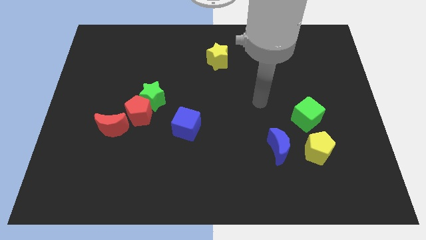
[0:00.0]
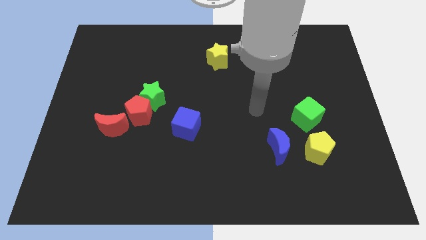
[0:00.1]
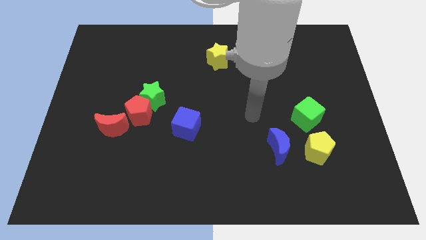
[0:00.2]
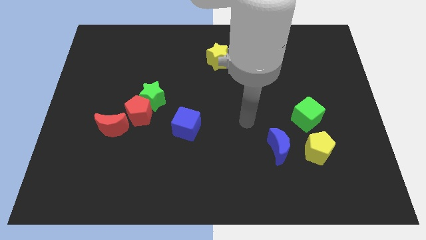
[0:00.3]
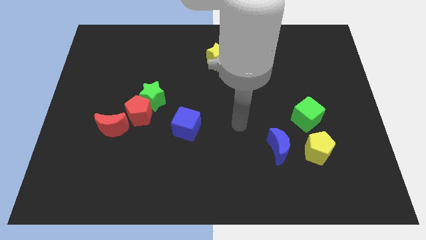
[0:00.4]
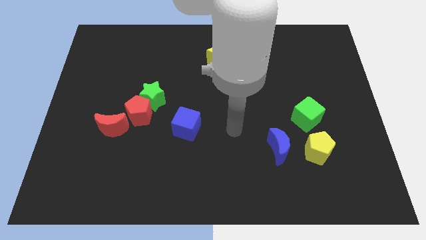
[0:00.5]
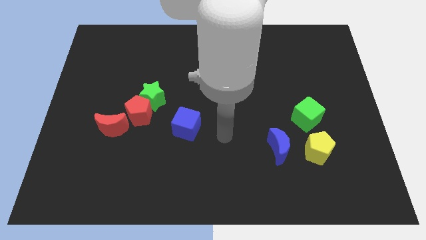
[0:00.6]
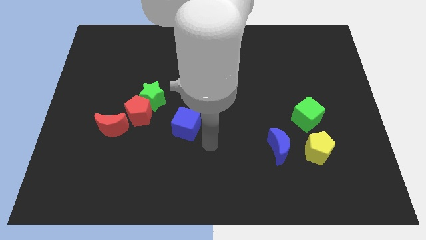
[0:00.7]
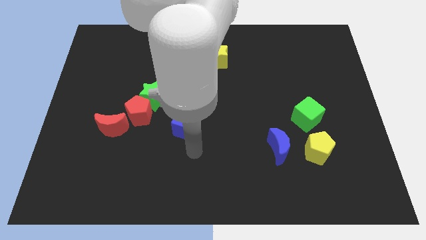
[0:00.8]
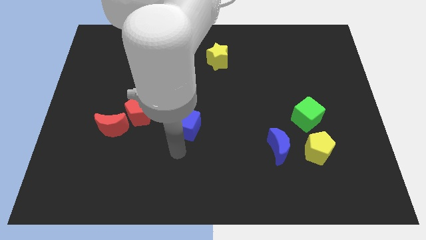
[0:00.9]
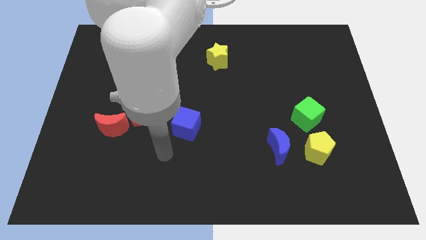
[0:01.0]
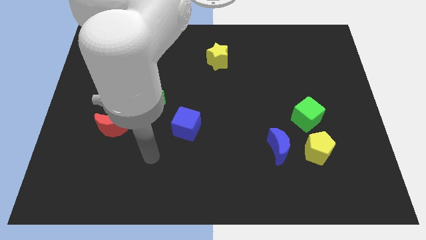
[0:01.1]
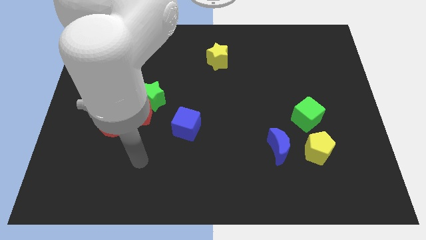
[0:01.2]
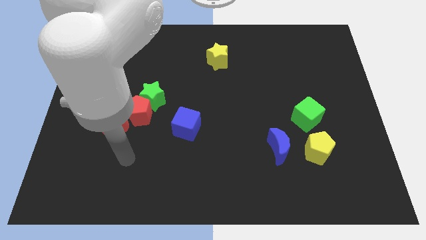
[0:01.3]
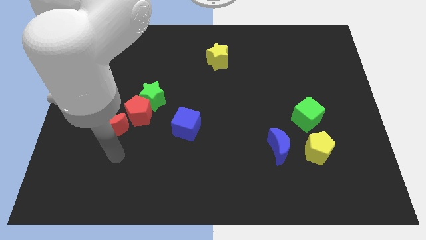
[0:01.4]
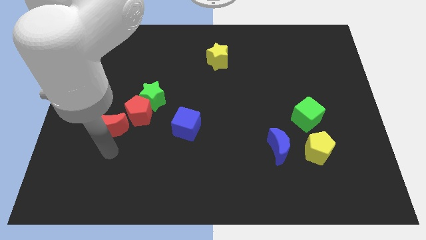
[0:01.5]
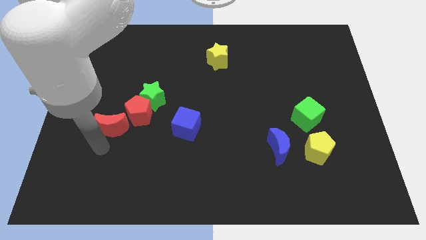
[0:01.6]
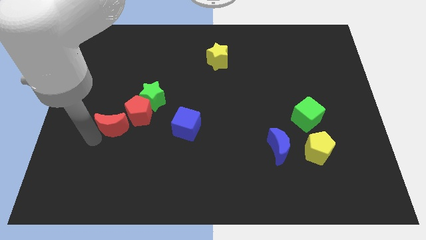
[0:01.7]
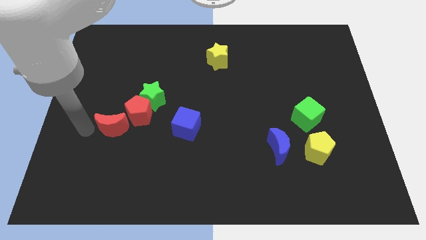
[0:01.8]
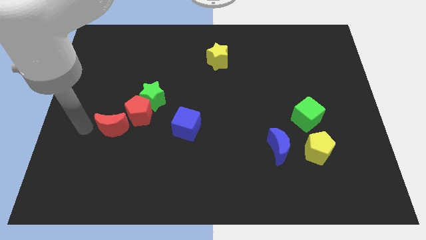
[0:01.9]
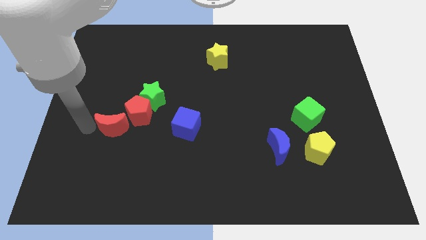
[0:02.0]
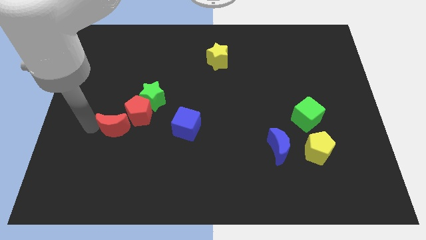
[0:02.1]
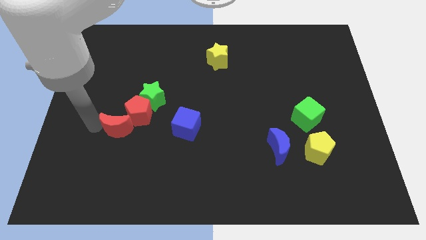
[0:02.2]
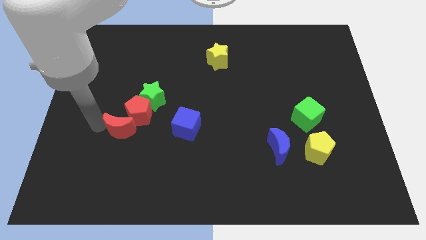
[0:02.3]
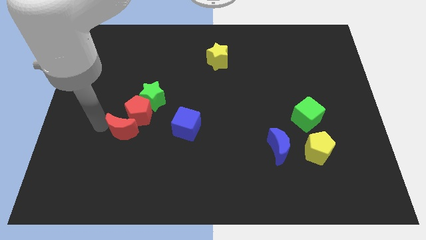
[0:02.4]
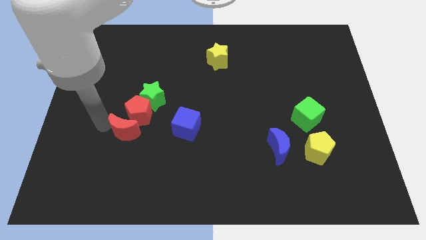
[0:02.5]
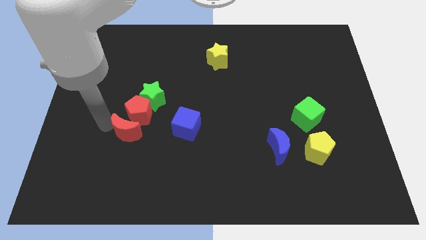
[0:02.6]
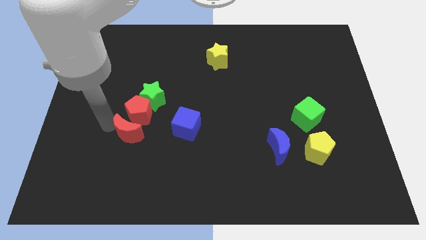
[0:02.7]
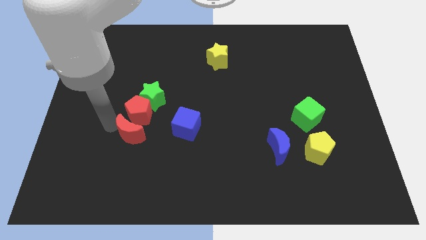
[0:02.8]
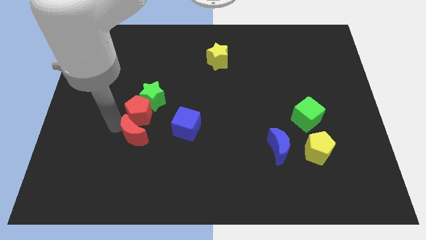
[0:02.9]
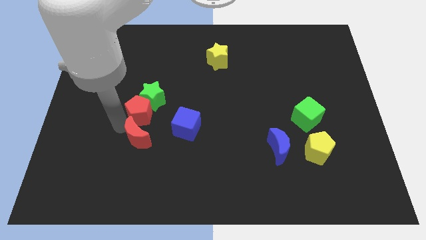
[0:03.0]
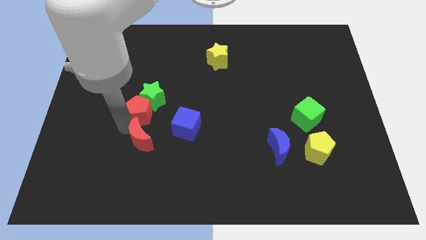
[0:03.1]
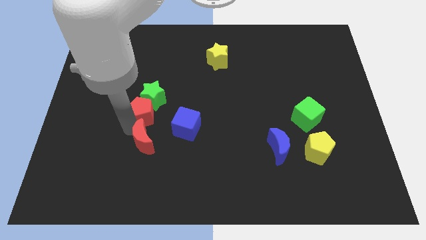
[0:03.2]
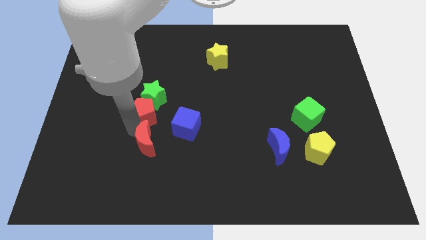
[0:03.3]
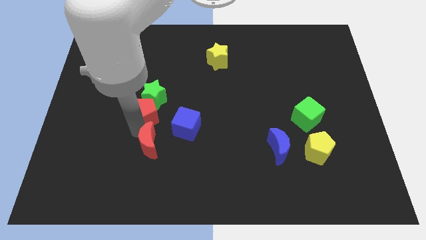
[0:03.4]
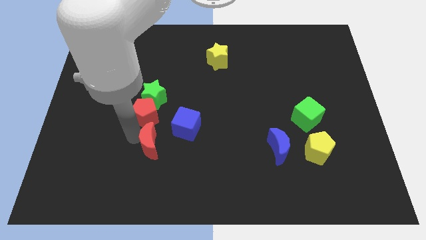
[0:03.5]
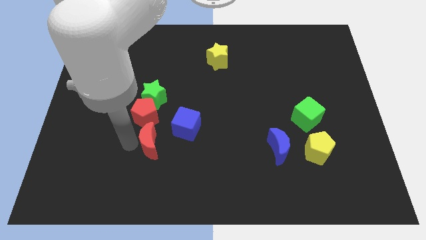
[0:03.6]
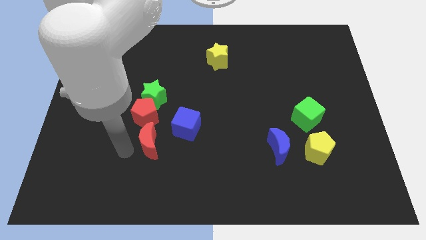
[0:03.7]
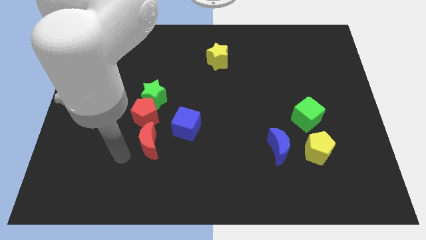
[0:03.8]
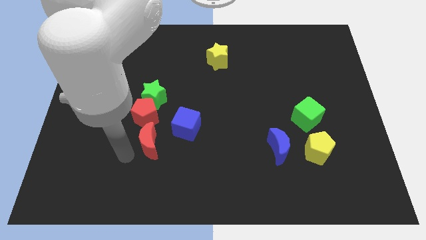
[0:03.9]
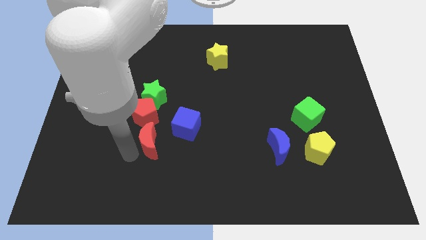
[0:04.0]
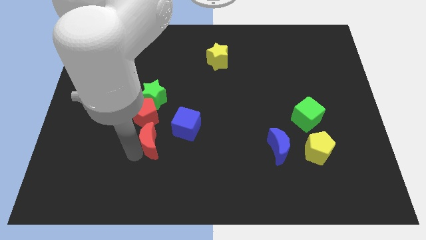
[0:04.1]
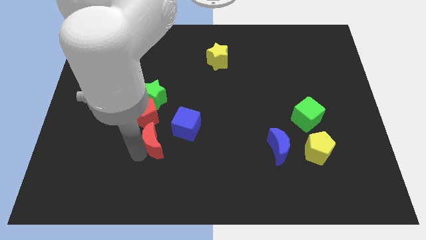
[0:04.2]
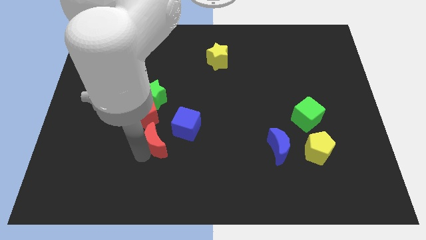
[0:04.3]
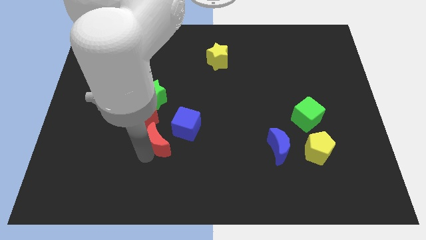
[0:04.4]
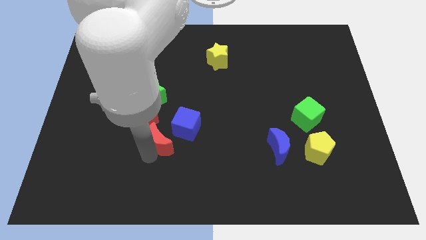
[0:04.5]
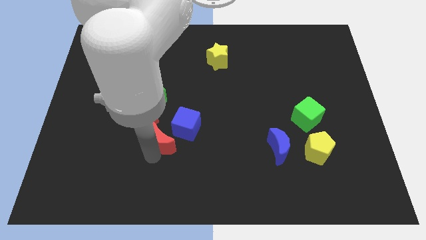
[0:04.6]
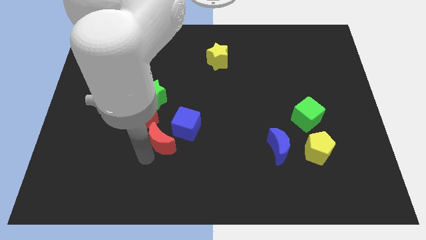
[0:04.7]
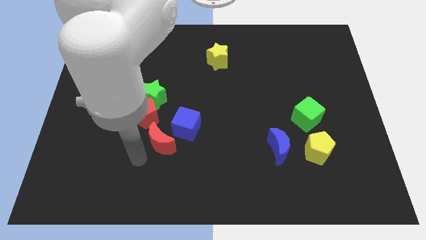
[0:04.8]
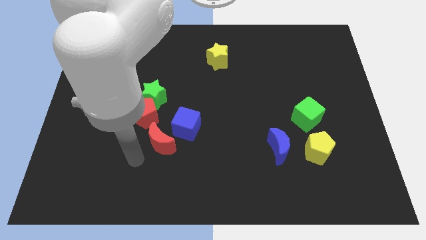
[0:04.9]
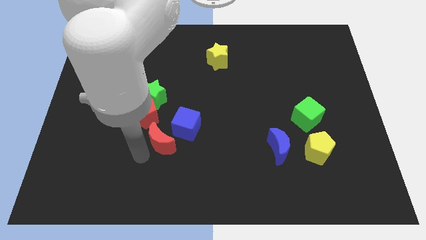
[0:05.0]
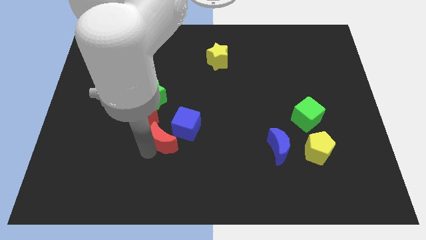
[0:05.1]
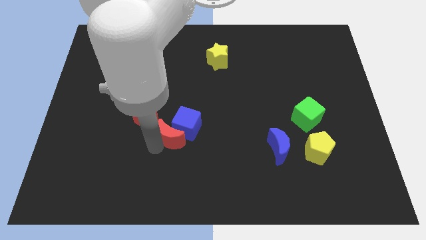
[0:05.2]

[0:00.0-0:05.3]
put the red moon to the blue cube

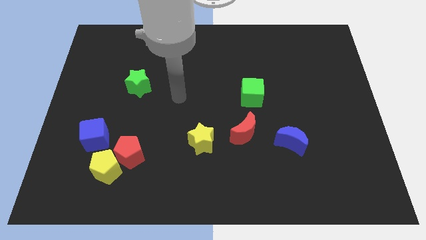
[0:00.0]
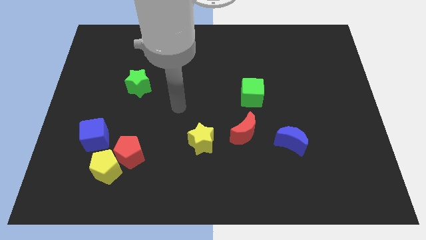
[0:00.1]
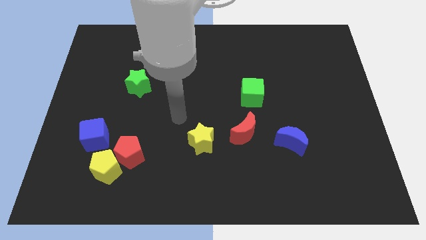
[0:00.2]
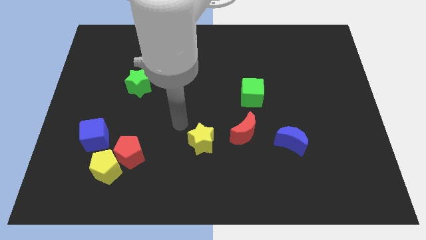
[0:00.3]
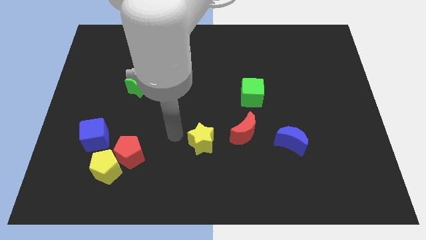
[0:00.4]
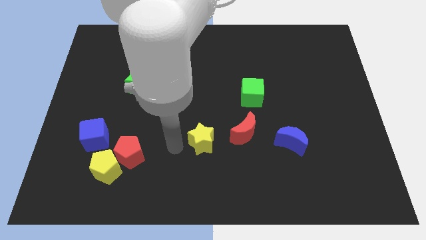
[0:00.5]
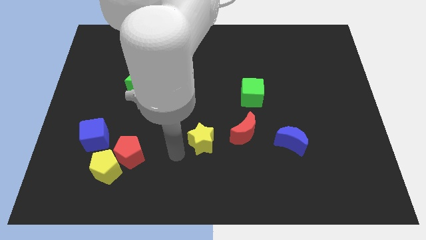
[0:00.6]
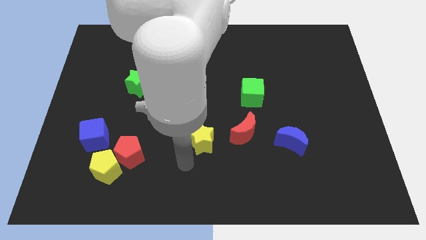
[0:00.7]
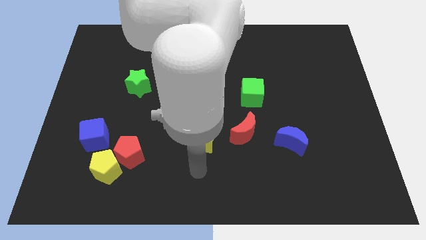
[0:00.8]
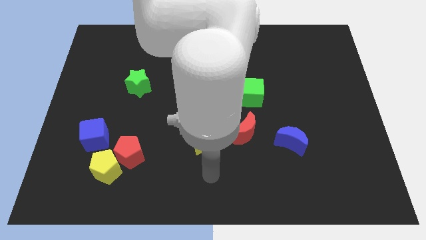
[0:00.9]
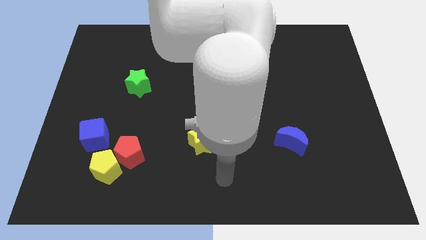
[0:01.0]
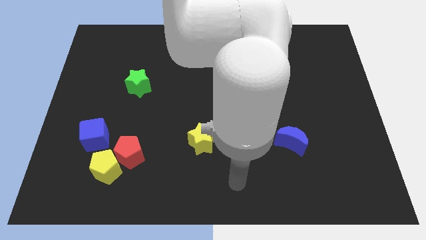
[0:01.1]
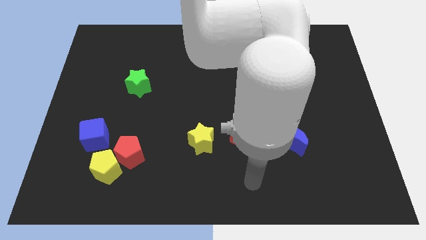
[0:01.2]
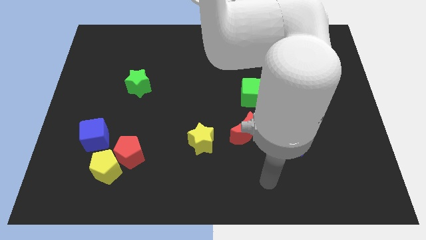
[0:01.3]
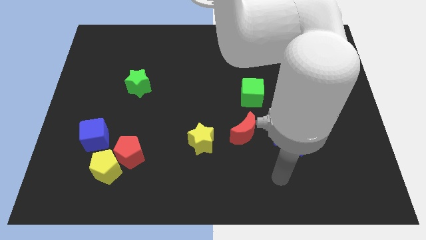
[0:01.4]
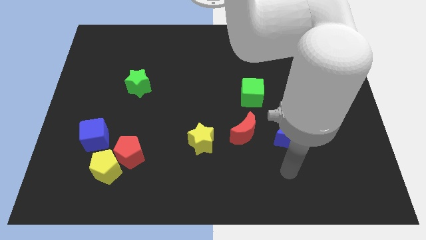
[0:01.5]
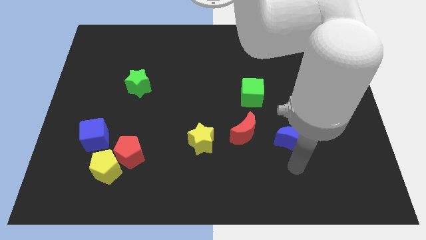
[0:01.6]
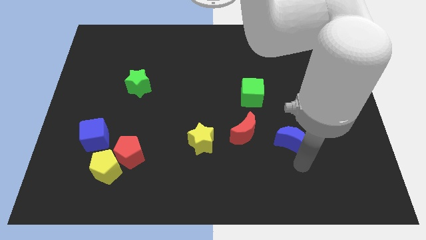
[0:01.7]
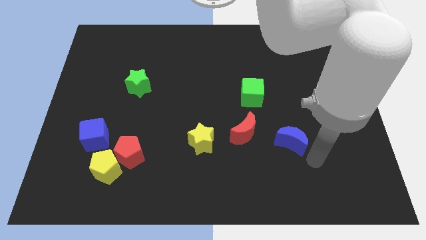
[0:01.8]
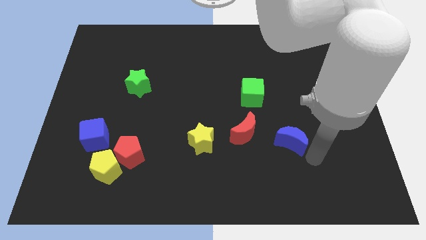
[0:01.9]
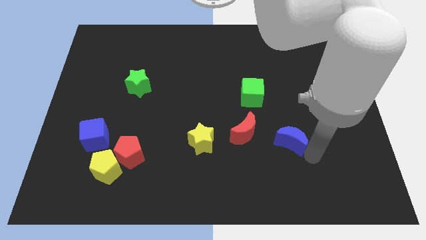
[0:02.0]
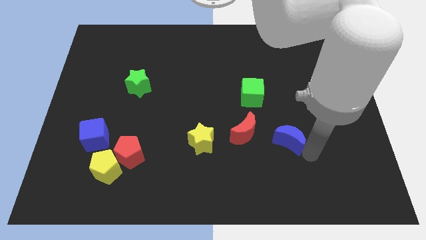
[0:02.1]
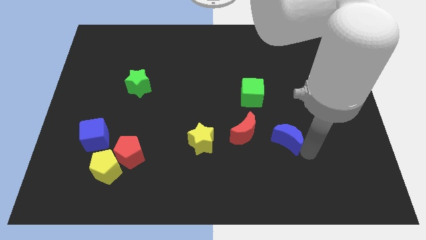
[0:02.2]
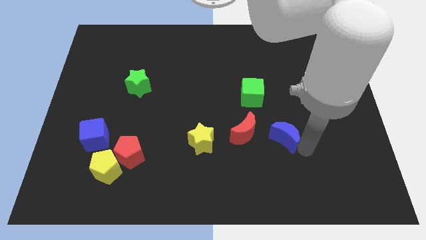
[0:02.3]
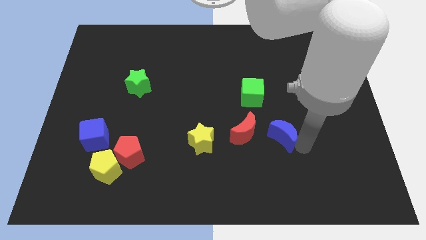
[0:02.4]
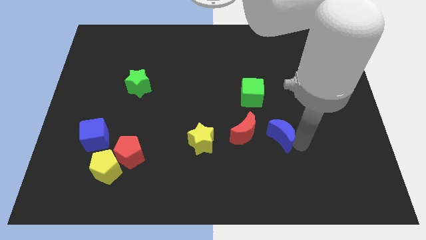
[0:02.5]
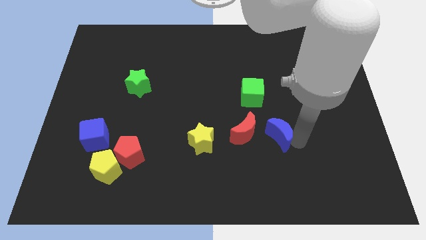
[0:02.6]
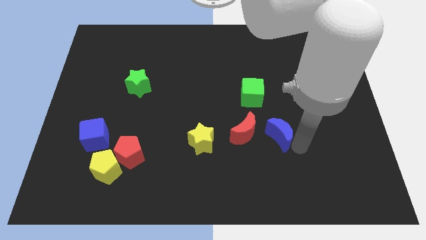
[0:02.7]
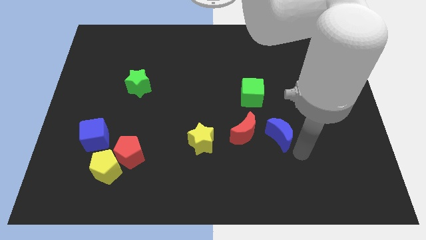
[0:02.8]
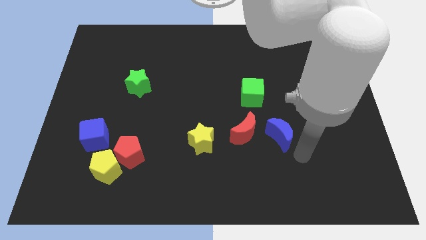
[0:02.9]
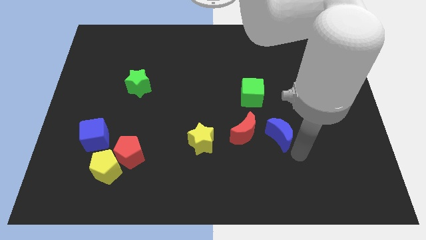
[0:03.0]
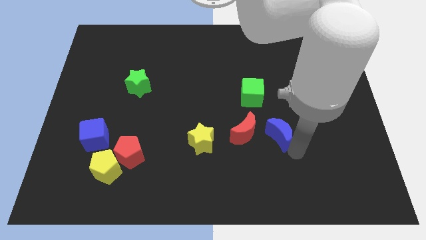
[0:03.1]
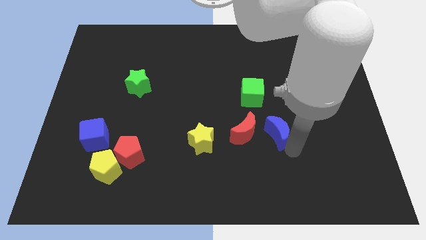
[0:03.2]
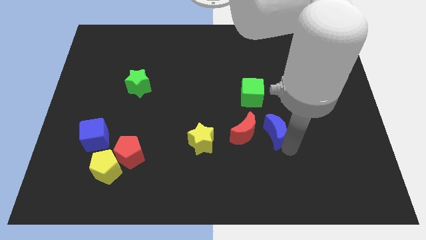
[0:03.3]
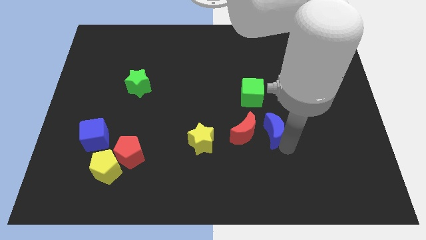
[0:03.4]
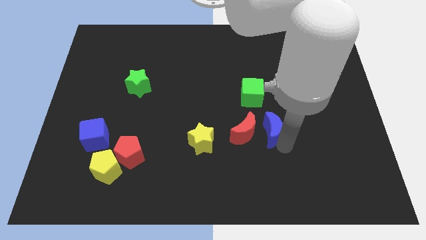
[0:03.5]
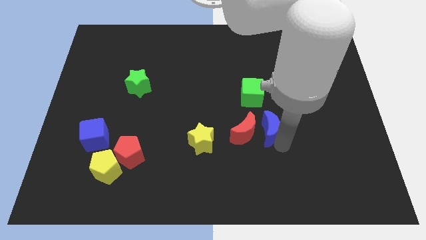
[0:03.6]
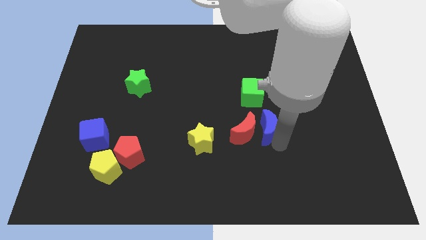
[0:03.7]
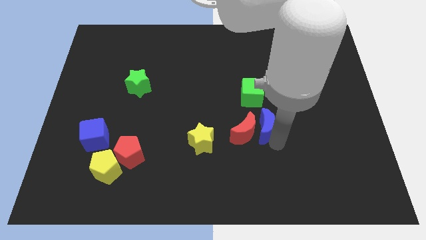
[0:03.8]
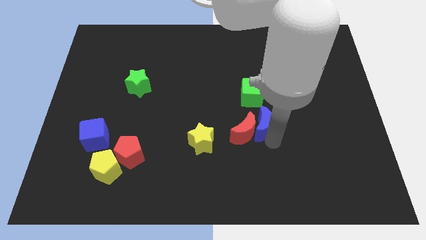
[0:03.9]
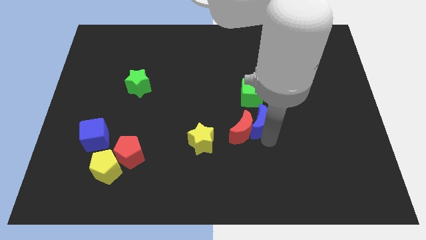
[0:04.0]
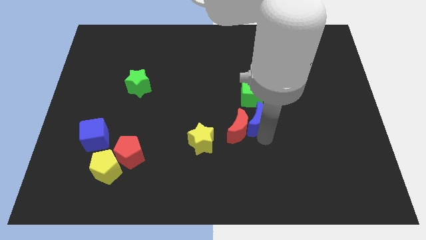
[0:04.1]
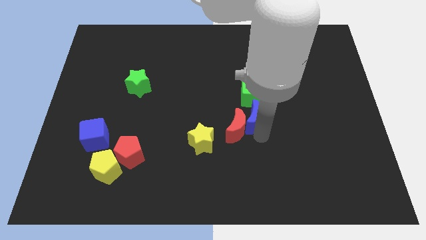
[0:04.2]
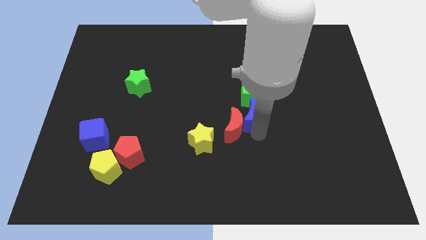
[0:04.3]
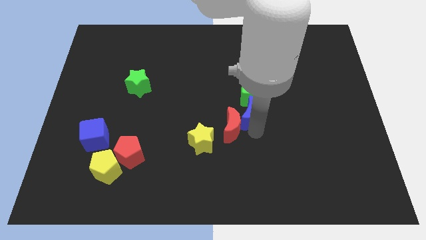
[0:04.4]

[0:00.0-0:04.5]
move the blue moon to the green cube
